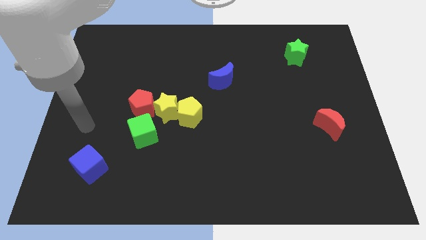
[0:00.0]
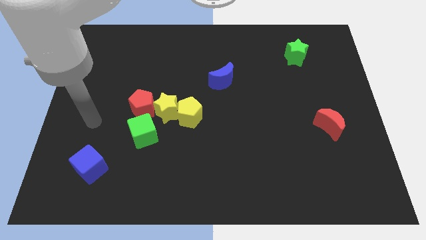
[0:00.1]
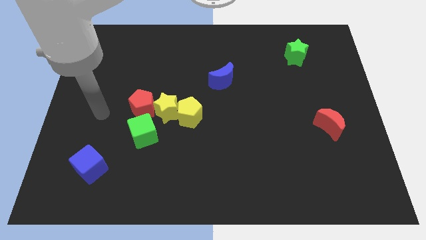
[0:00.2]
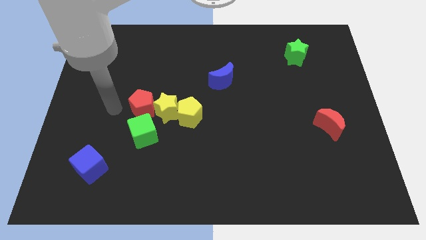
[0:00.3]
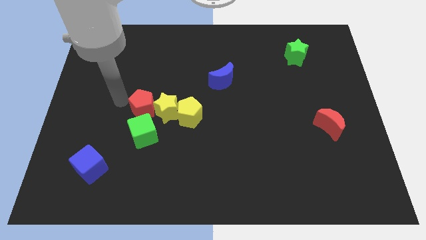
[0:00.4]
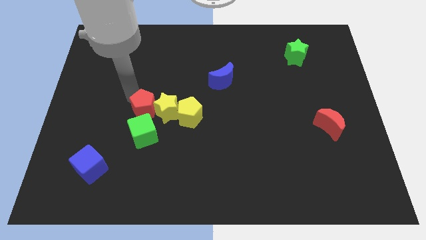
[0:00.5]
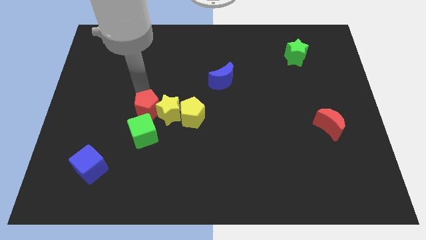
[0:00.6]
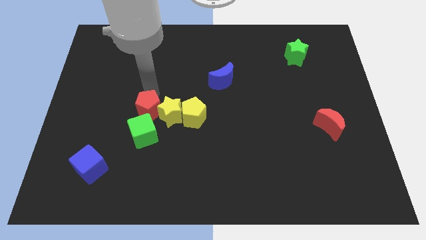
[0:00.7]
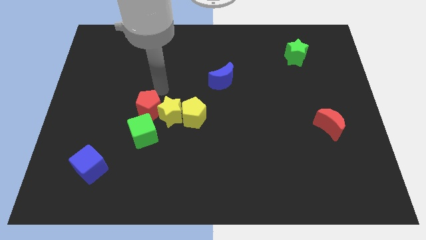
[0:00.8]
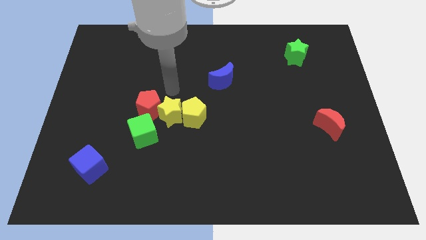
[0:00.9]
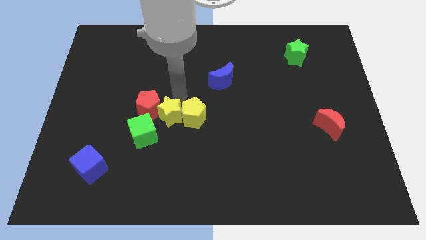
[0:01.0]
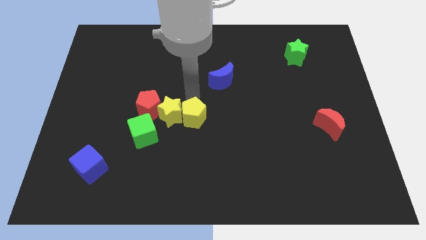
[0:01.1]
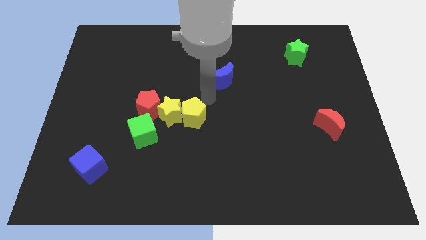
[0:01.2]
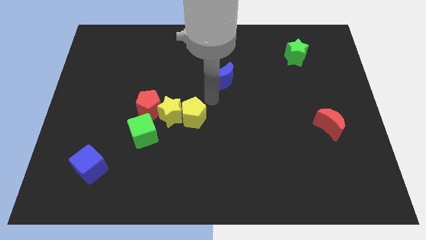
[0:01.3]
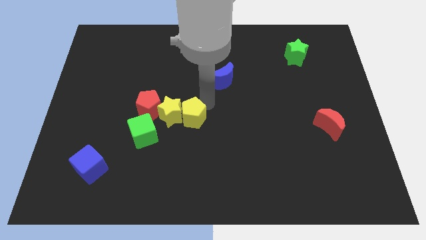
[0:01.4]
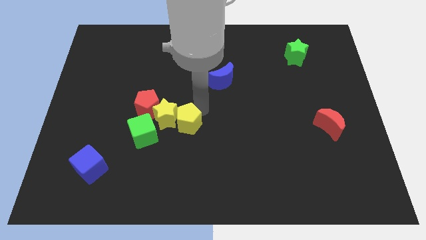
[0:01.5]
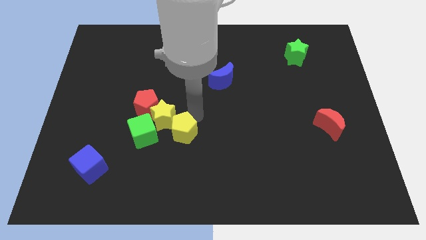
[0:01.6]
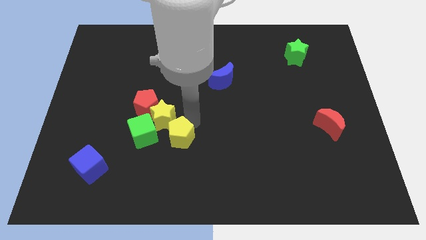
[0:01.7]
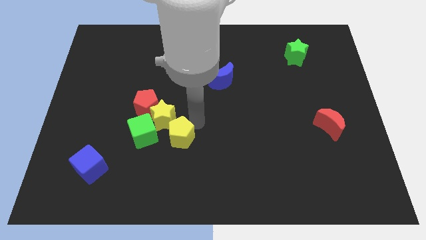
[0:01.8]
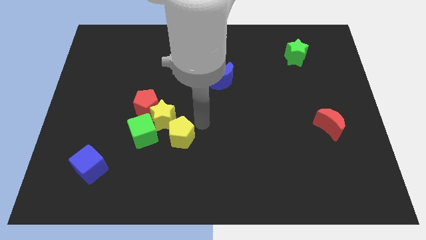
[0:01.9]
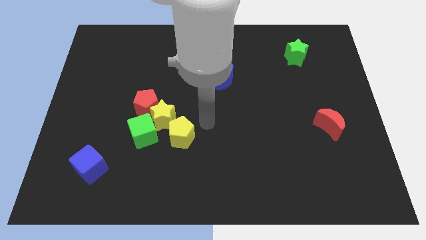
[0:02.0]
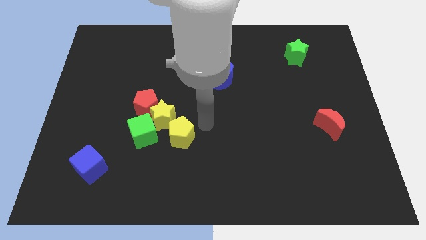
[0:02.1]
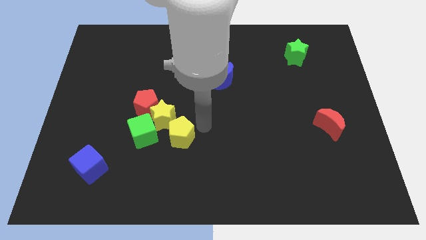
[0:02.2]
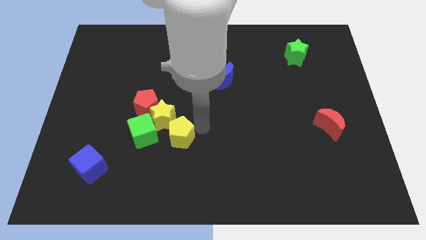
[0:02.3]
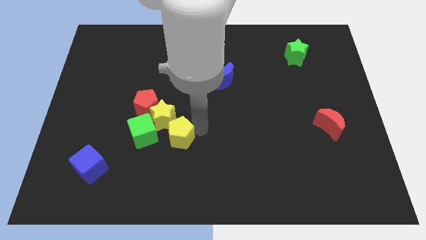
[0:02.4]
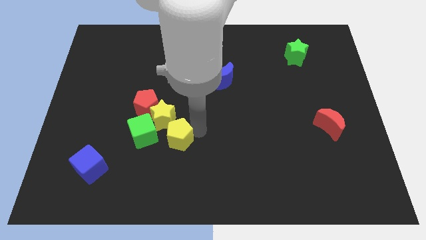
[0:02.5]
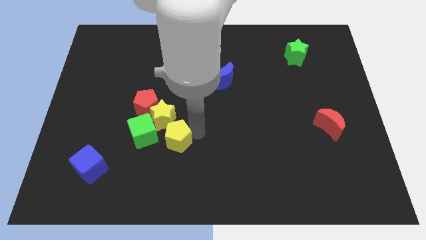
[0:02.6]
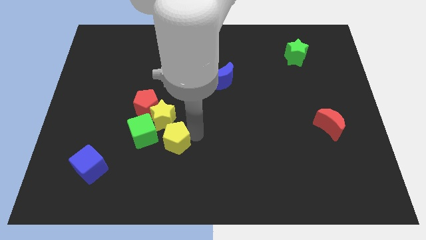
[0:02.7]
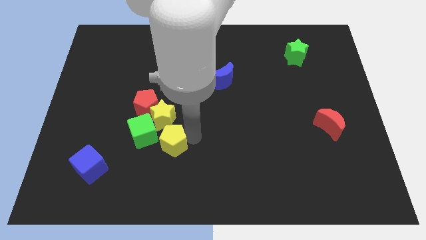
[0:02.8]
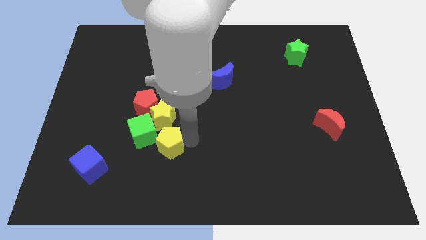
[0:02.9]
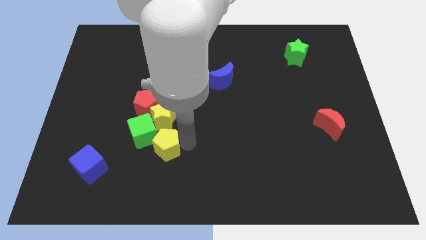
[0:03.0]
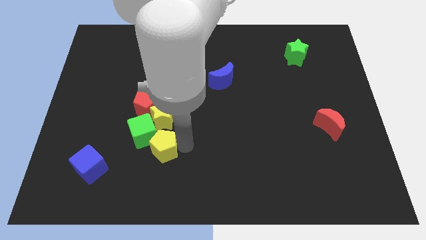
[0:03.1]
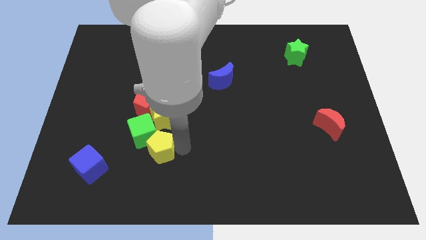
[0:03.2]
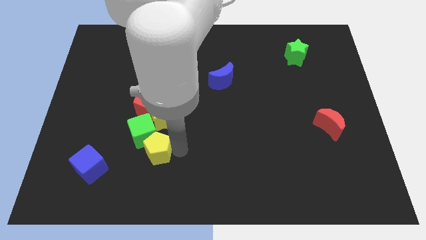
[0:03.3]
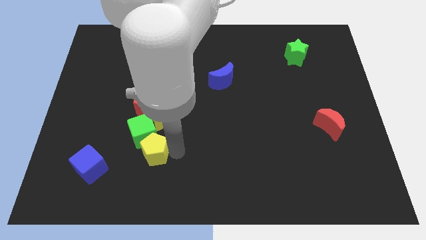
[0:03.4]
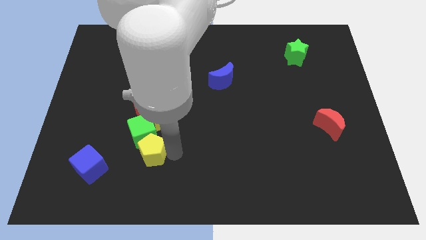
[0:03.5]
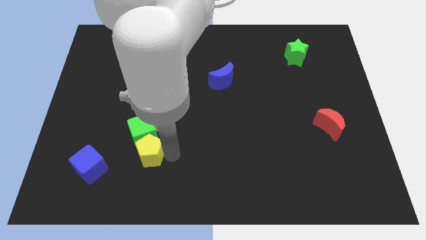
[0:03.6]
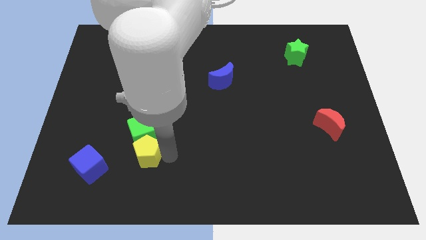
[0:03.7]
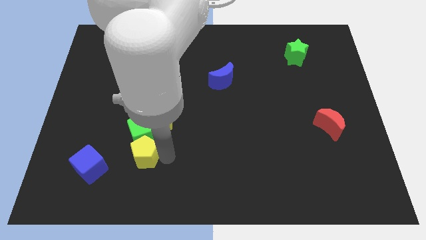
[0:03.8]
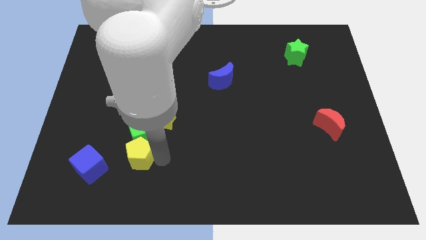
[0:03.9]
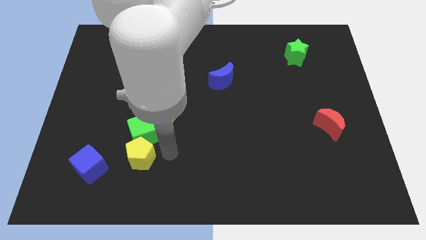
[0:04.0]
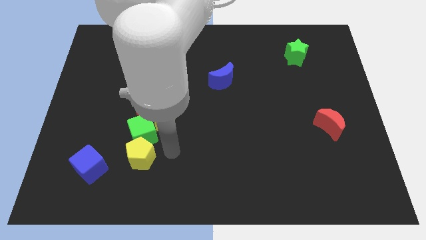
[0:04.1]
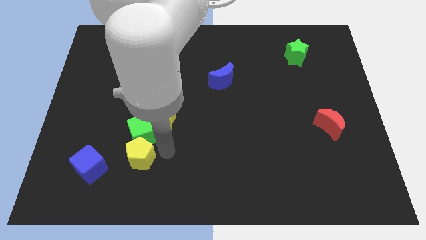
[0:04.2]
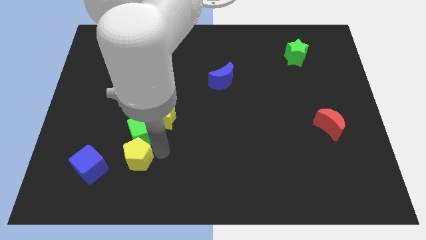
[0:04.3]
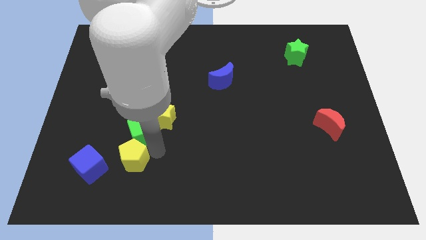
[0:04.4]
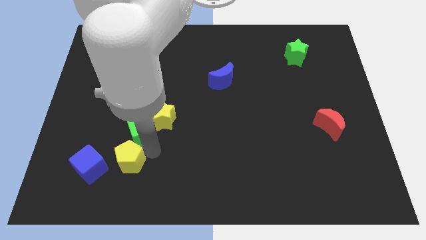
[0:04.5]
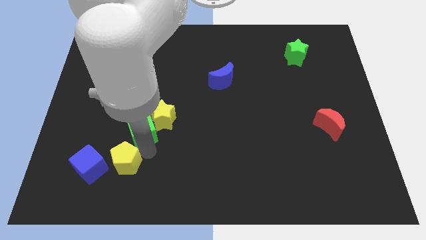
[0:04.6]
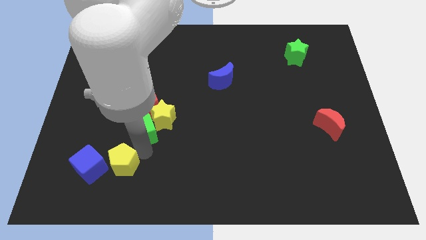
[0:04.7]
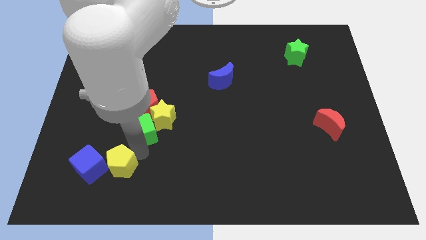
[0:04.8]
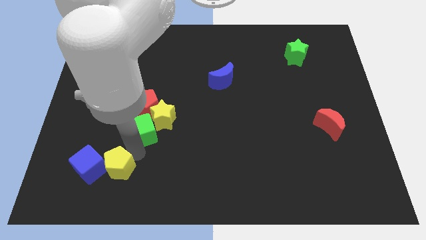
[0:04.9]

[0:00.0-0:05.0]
slide the yellow pentagon to the blue cube

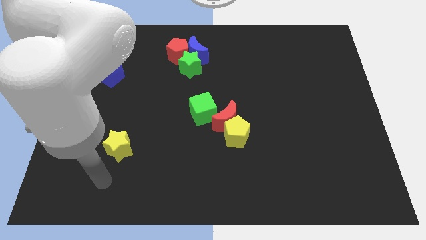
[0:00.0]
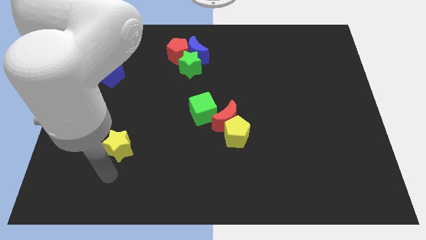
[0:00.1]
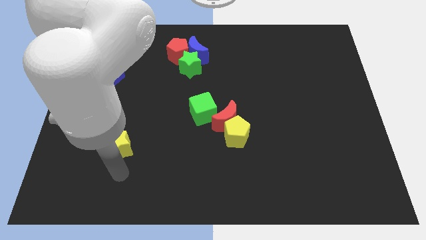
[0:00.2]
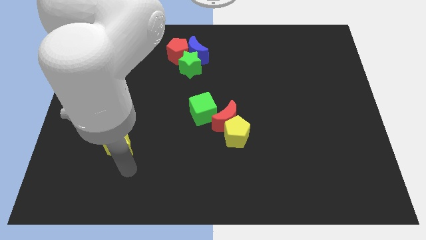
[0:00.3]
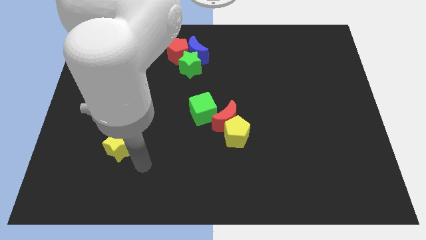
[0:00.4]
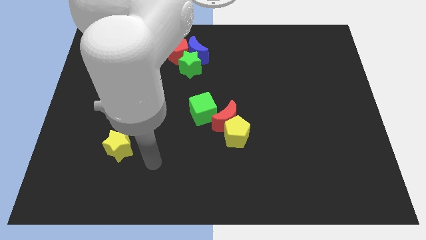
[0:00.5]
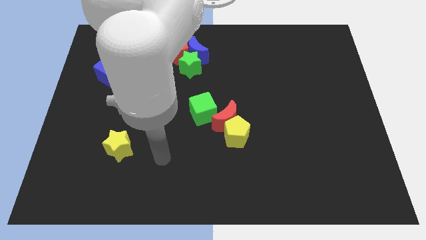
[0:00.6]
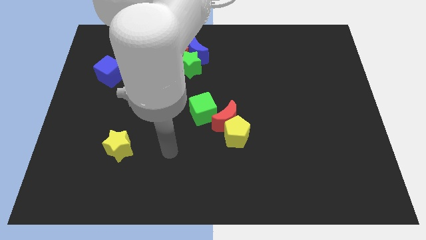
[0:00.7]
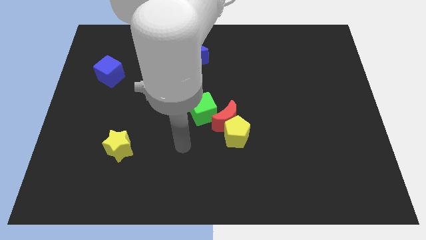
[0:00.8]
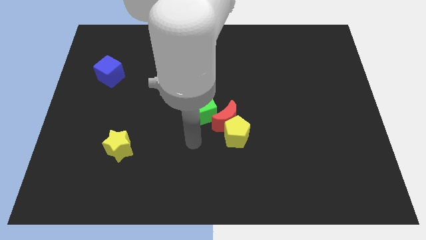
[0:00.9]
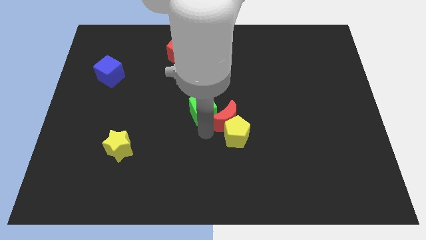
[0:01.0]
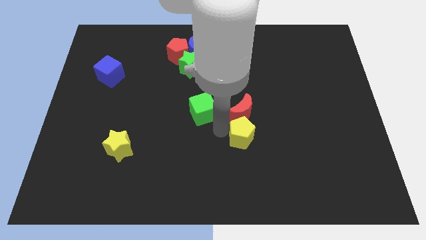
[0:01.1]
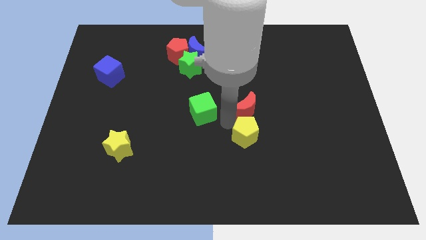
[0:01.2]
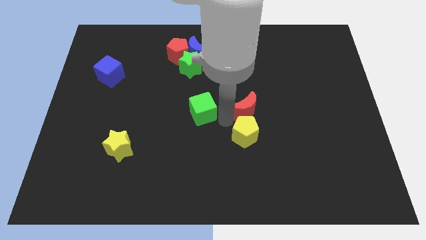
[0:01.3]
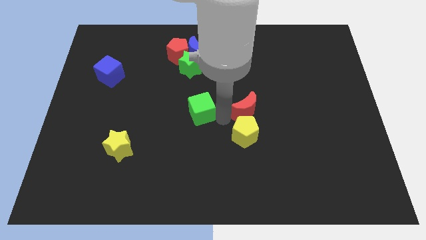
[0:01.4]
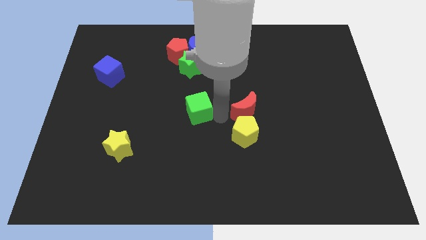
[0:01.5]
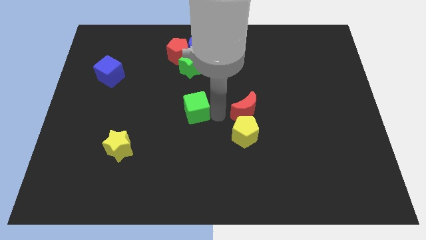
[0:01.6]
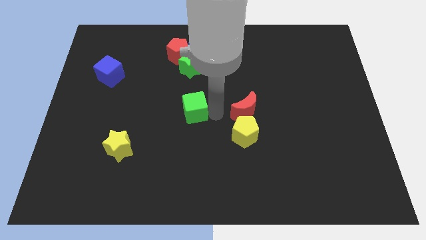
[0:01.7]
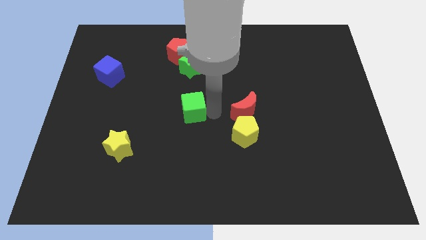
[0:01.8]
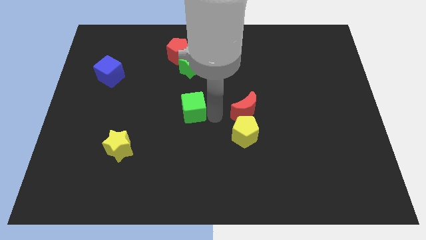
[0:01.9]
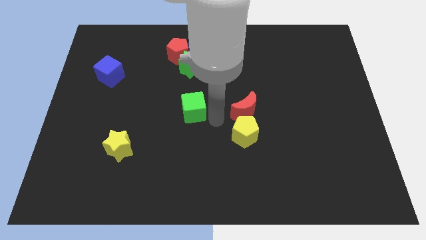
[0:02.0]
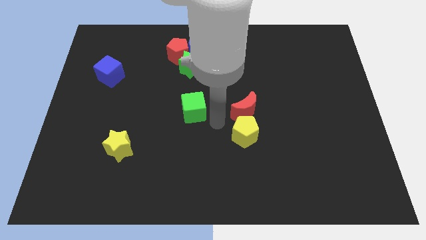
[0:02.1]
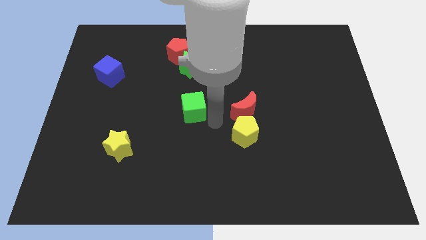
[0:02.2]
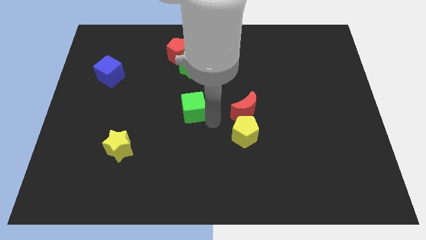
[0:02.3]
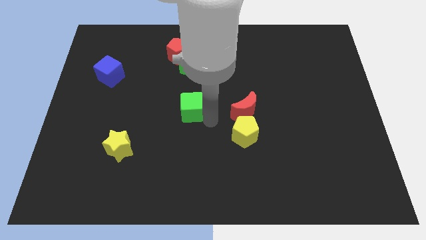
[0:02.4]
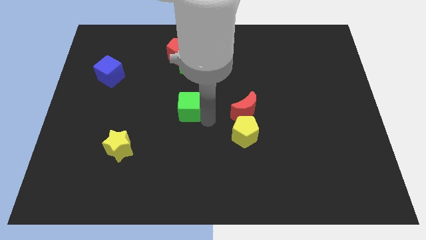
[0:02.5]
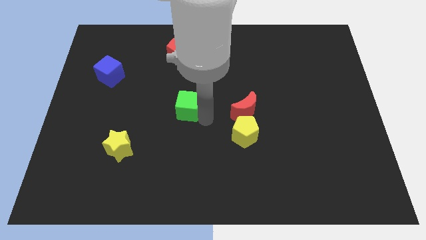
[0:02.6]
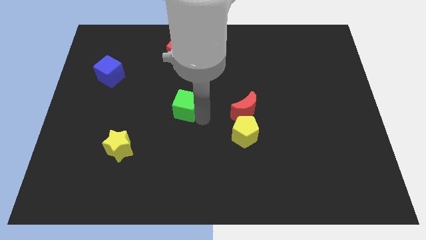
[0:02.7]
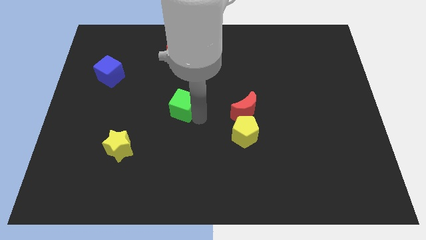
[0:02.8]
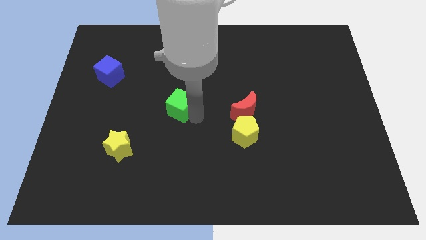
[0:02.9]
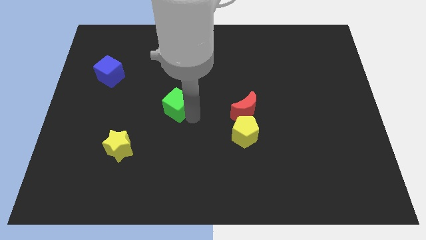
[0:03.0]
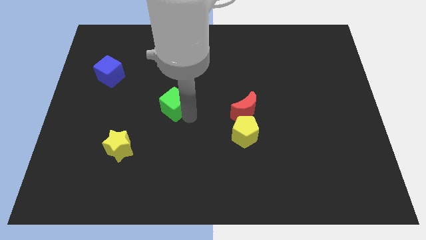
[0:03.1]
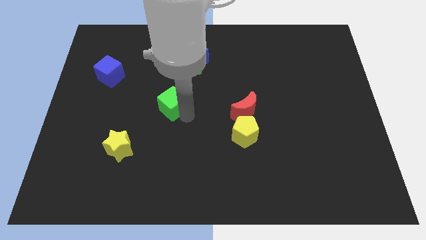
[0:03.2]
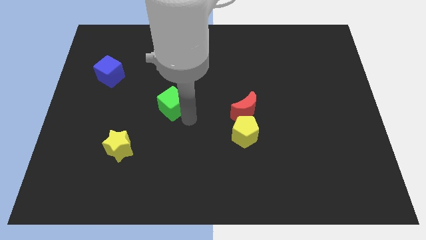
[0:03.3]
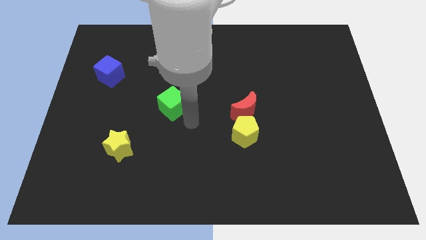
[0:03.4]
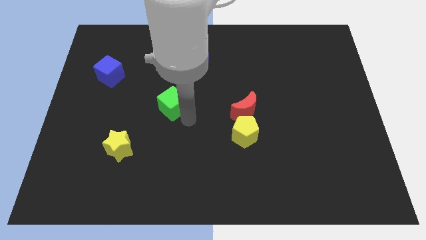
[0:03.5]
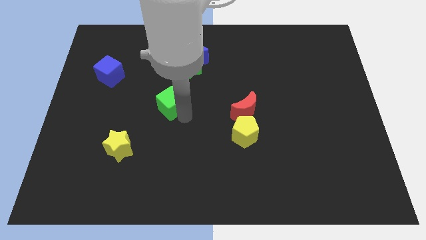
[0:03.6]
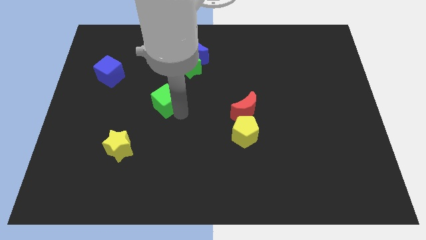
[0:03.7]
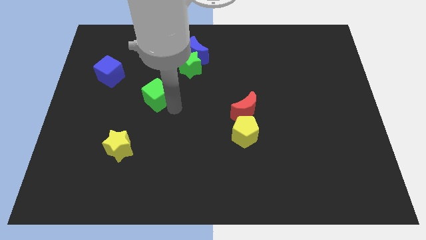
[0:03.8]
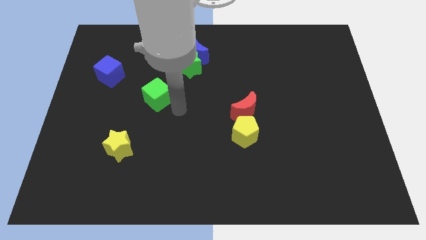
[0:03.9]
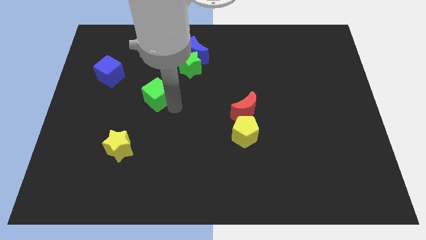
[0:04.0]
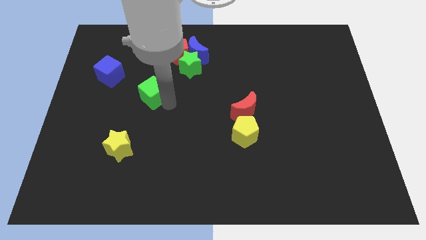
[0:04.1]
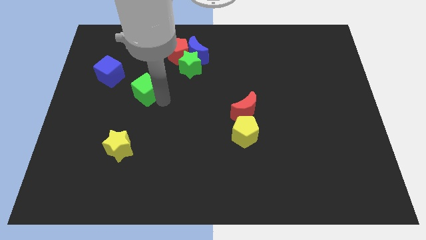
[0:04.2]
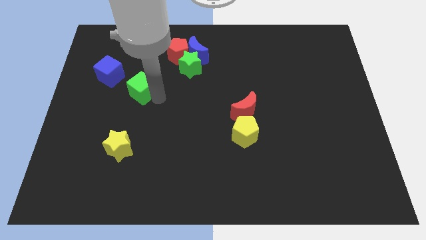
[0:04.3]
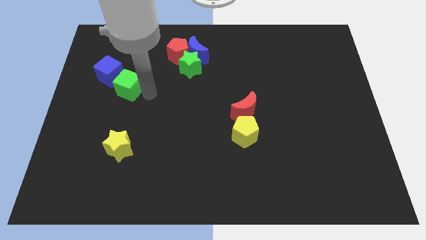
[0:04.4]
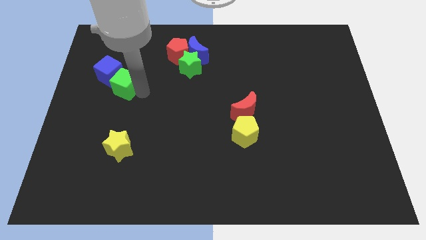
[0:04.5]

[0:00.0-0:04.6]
move the green cube towards the blue cube
